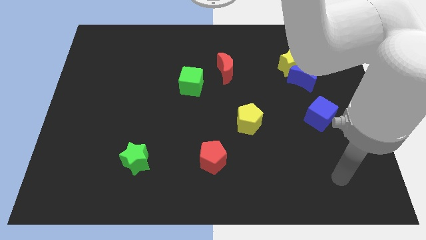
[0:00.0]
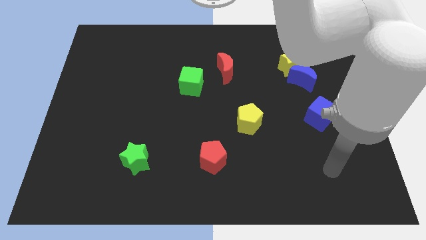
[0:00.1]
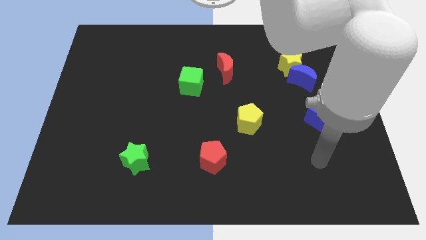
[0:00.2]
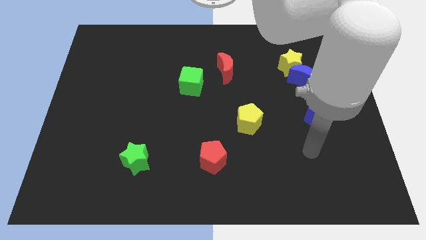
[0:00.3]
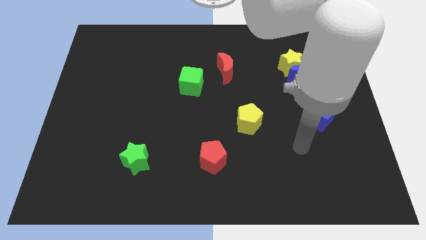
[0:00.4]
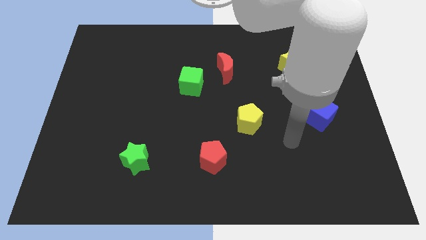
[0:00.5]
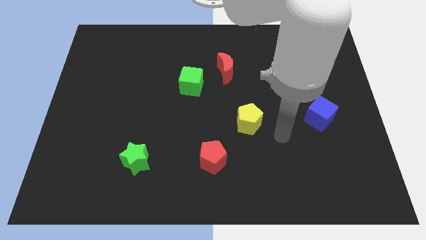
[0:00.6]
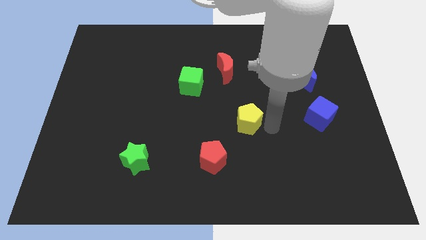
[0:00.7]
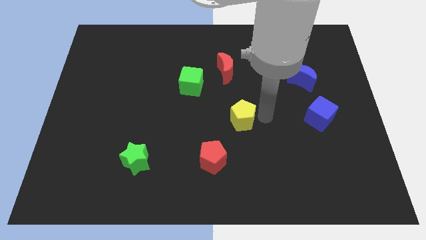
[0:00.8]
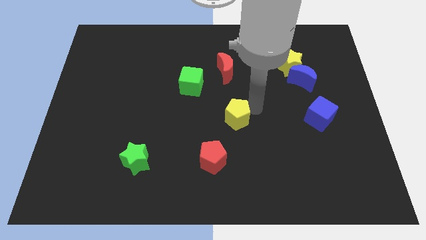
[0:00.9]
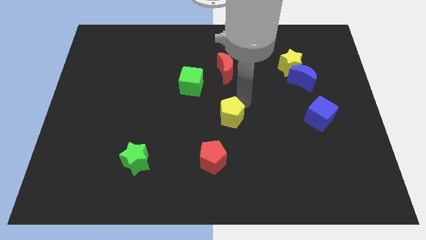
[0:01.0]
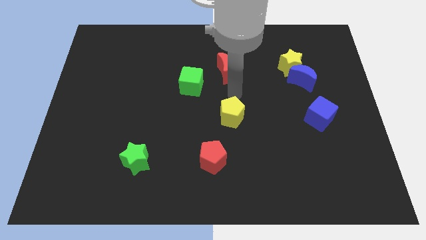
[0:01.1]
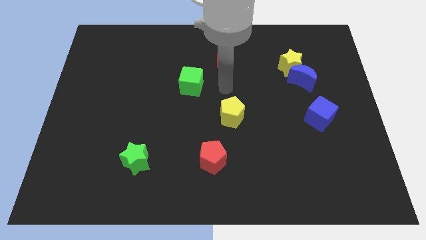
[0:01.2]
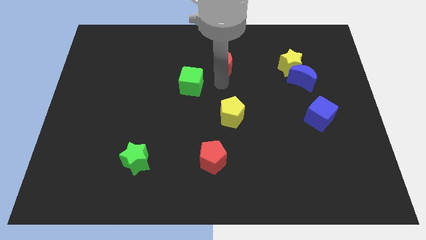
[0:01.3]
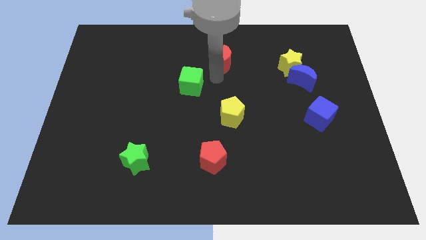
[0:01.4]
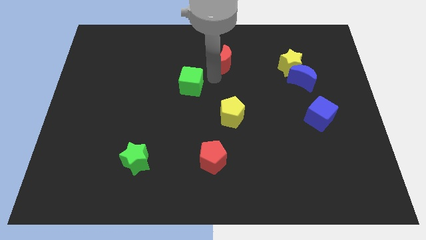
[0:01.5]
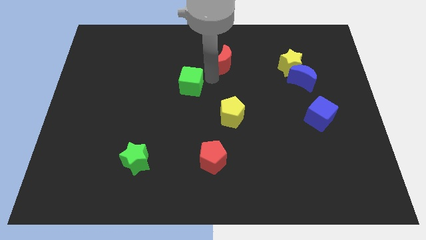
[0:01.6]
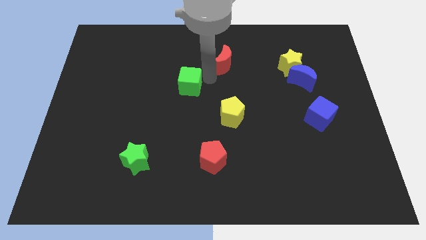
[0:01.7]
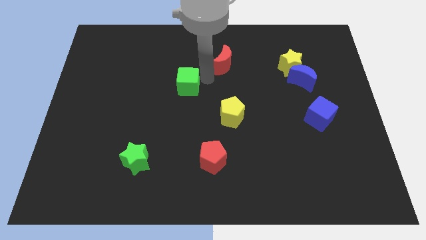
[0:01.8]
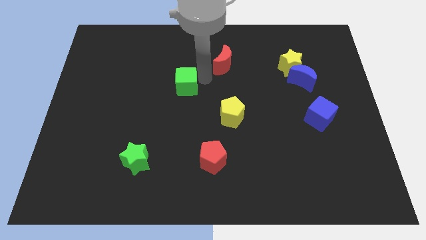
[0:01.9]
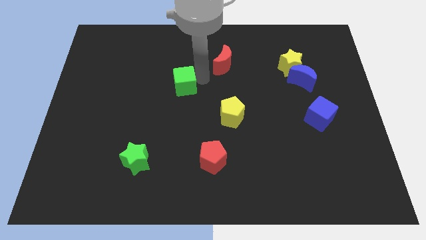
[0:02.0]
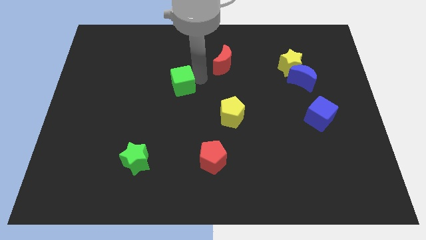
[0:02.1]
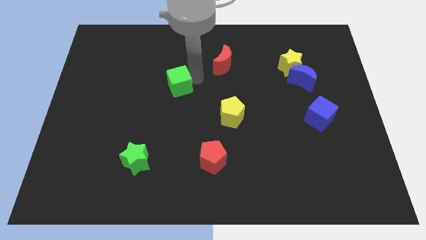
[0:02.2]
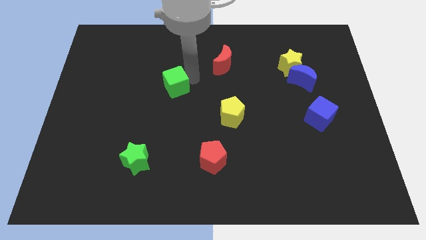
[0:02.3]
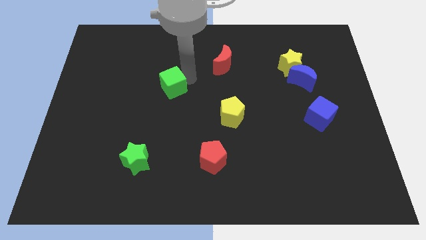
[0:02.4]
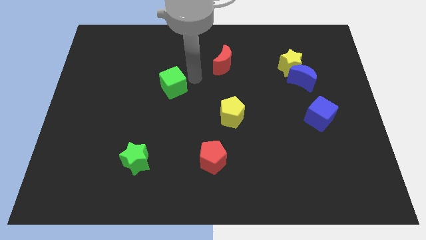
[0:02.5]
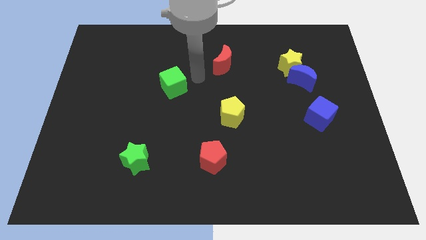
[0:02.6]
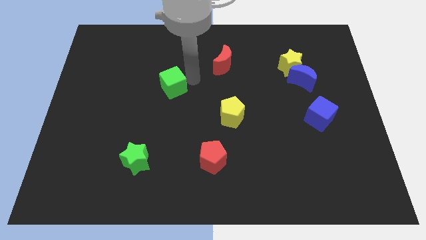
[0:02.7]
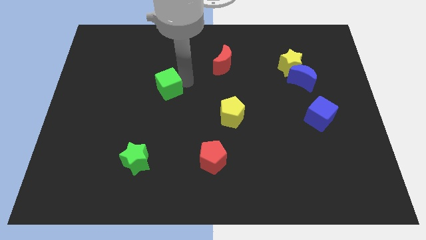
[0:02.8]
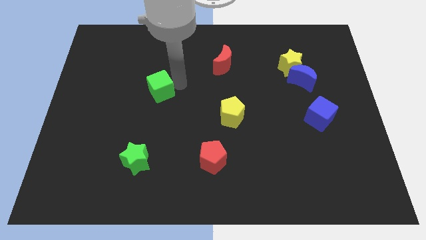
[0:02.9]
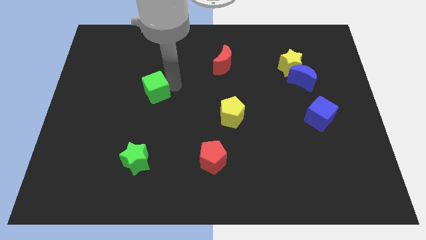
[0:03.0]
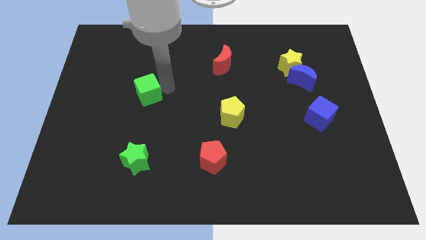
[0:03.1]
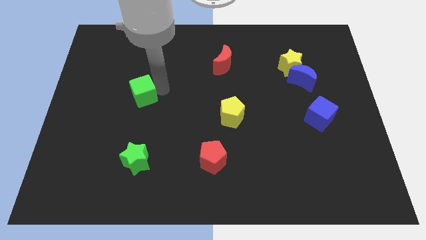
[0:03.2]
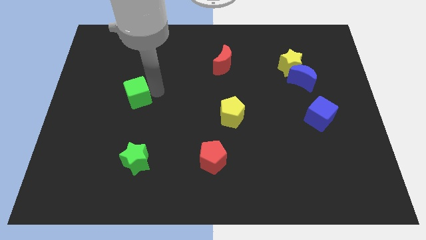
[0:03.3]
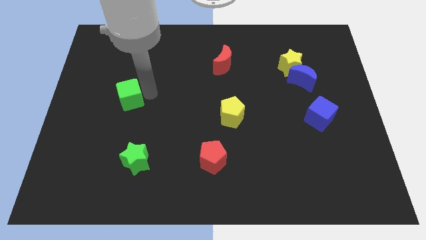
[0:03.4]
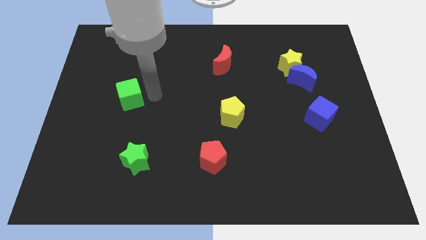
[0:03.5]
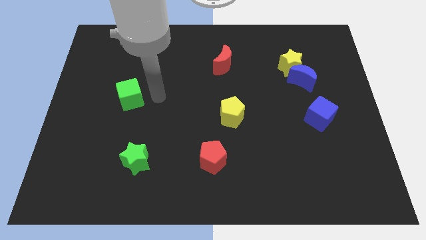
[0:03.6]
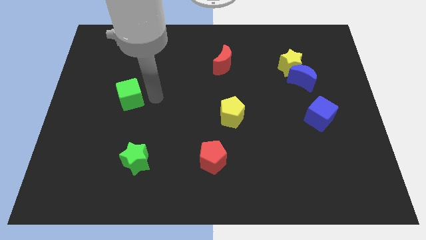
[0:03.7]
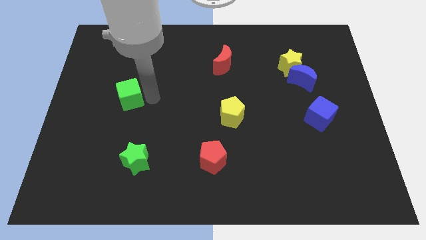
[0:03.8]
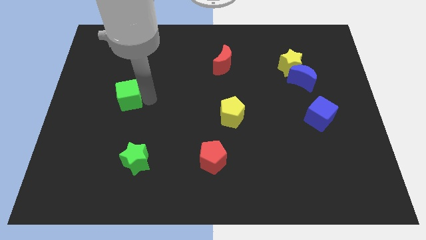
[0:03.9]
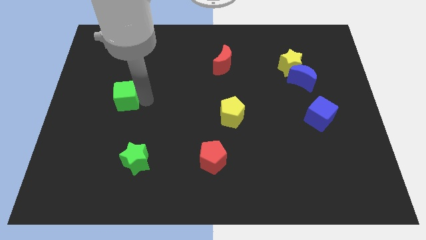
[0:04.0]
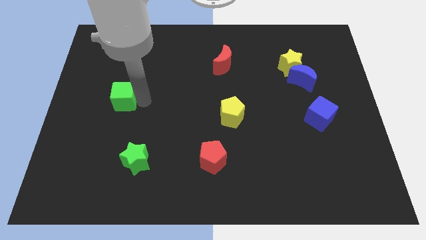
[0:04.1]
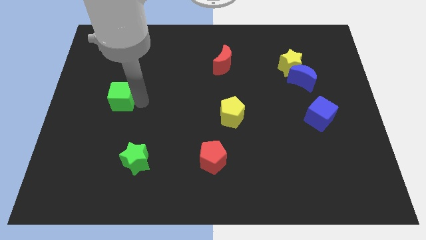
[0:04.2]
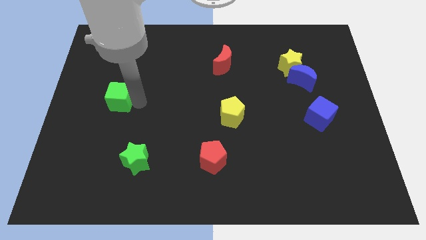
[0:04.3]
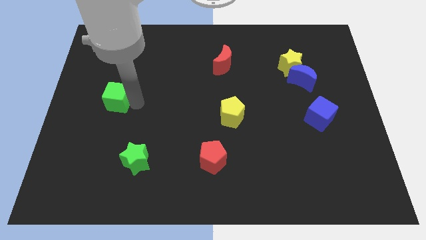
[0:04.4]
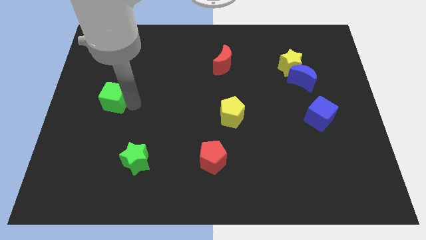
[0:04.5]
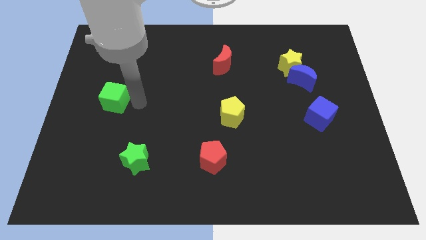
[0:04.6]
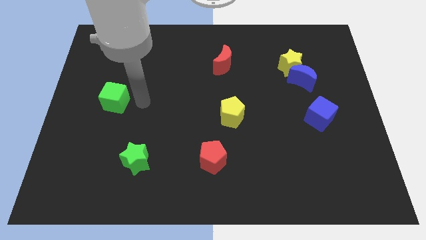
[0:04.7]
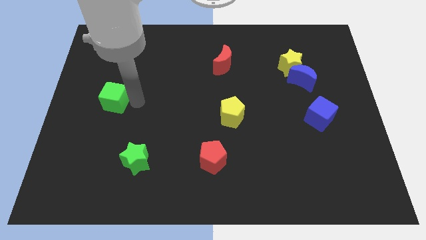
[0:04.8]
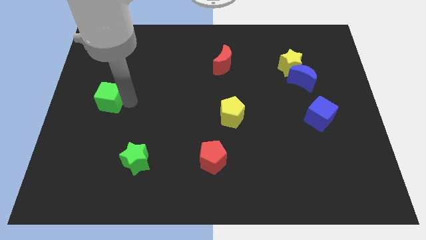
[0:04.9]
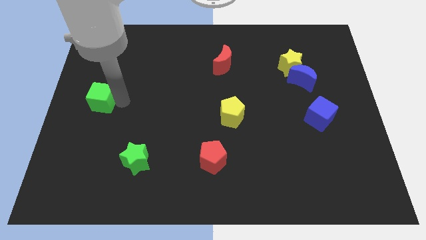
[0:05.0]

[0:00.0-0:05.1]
move the green cube to the left side of the board

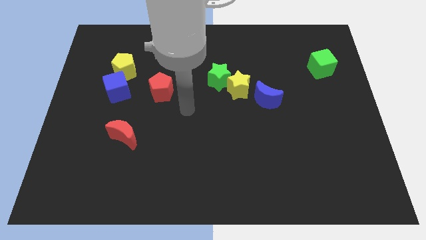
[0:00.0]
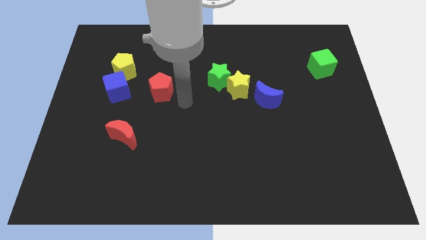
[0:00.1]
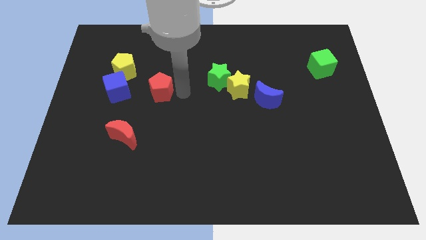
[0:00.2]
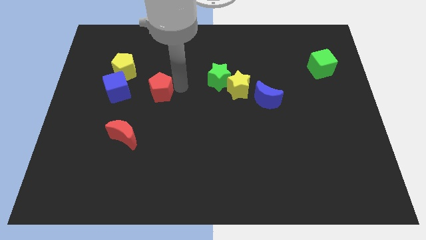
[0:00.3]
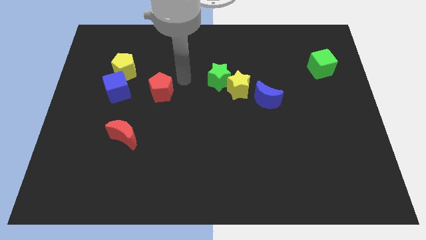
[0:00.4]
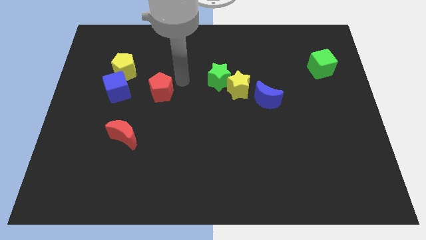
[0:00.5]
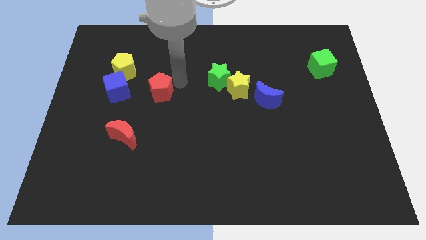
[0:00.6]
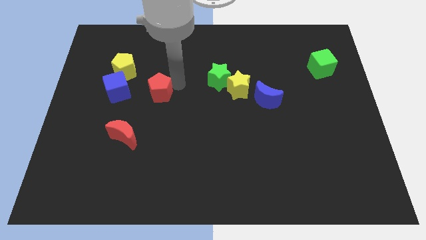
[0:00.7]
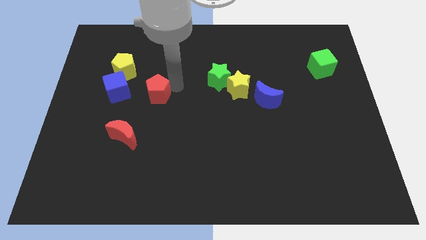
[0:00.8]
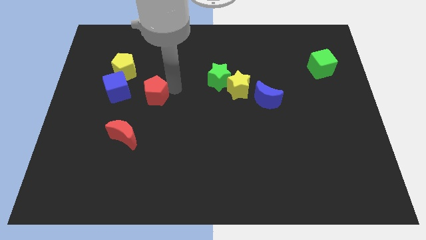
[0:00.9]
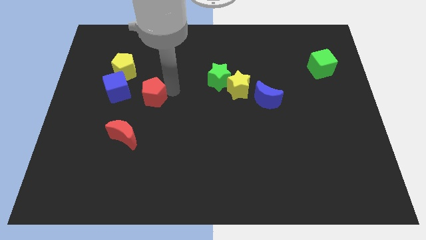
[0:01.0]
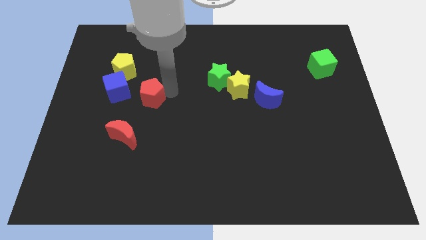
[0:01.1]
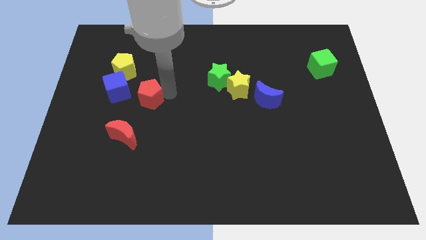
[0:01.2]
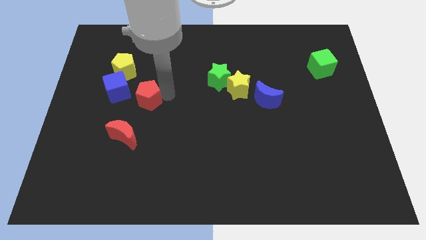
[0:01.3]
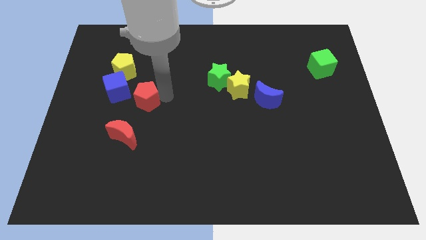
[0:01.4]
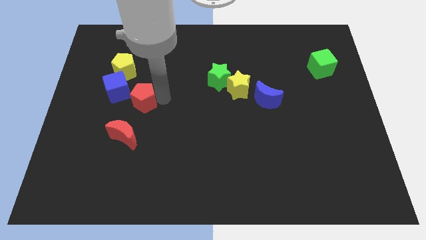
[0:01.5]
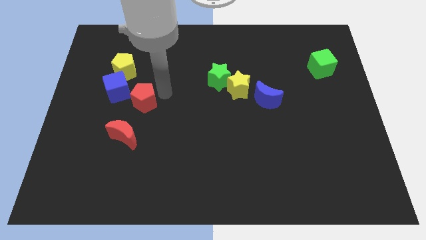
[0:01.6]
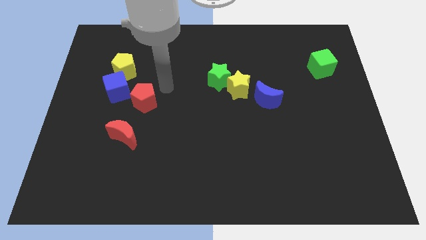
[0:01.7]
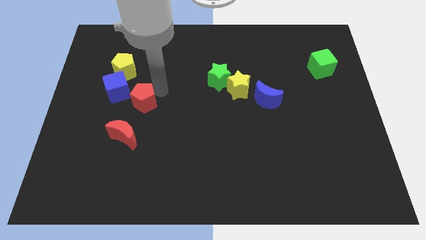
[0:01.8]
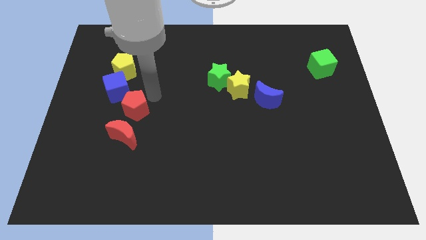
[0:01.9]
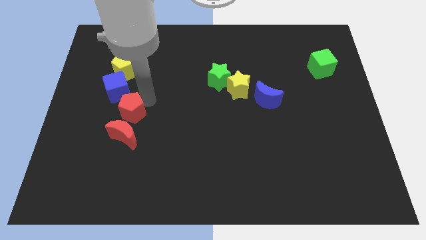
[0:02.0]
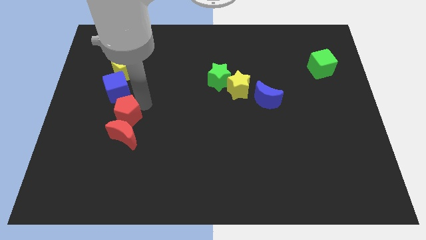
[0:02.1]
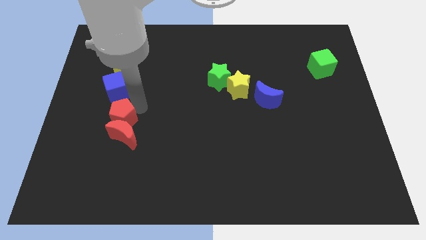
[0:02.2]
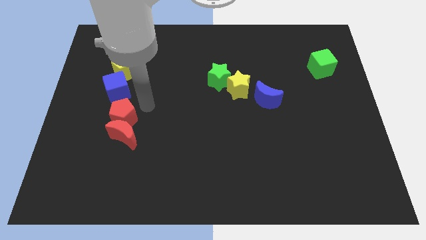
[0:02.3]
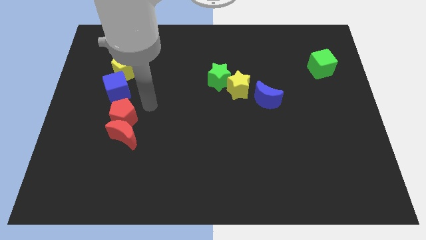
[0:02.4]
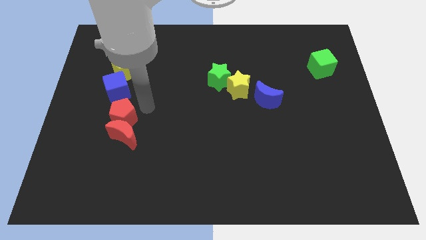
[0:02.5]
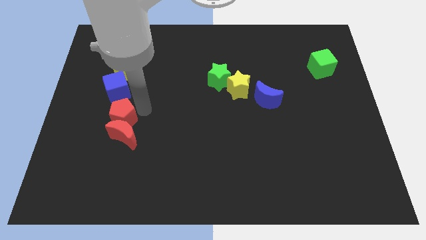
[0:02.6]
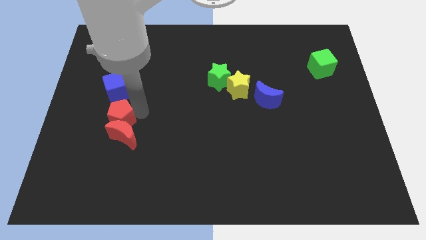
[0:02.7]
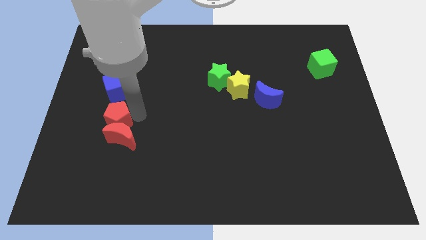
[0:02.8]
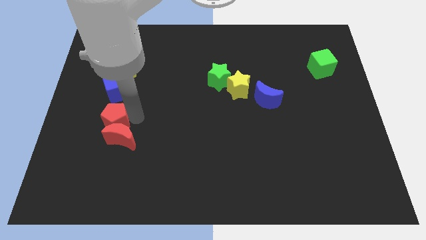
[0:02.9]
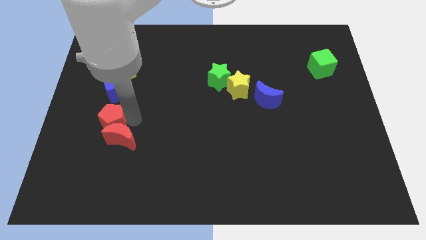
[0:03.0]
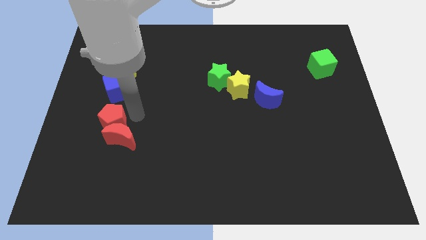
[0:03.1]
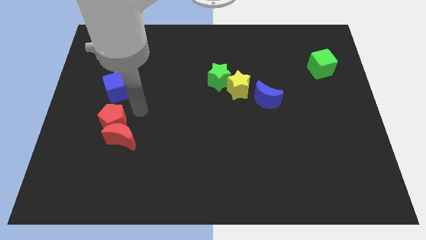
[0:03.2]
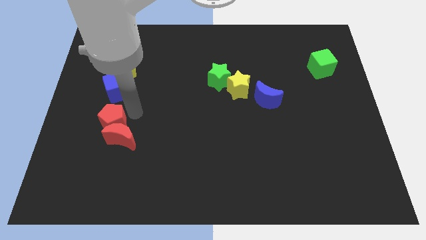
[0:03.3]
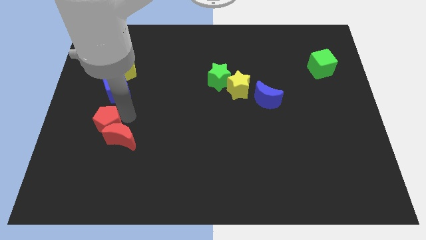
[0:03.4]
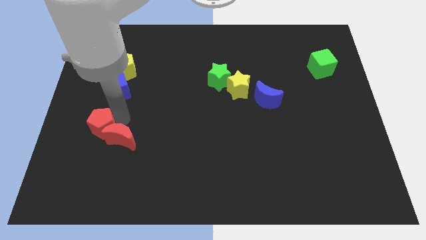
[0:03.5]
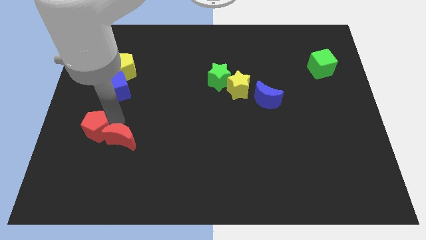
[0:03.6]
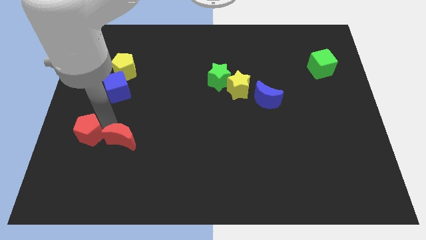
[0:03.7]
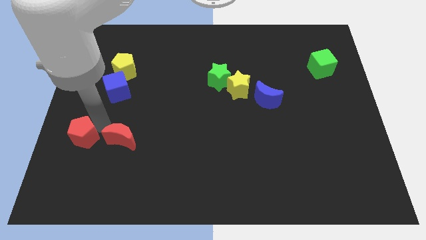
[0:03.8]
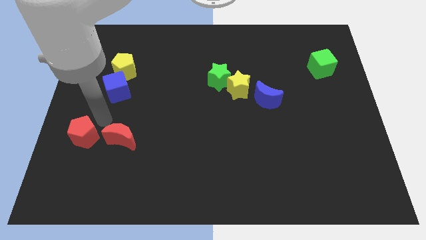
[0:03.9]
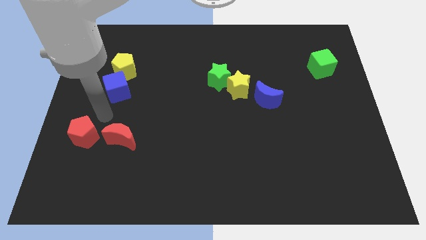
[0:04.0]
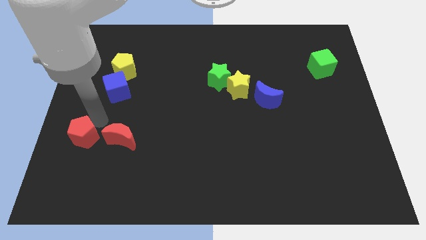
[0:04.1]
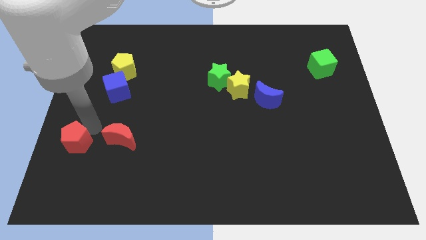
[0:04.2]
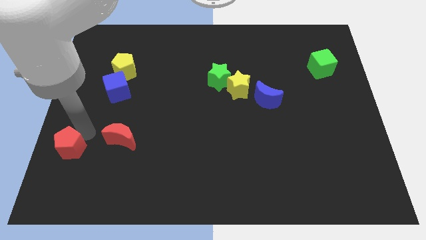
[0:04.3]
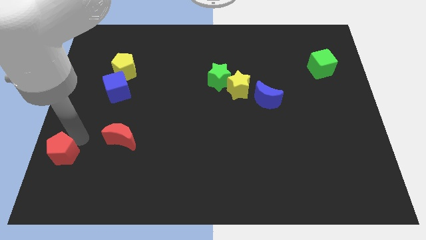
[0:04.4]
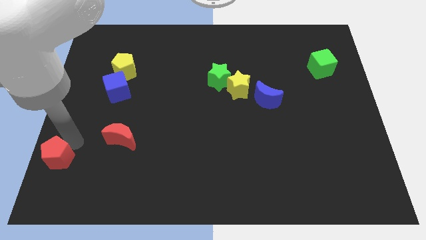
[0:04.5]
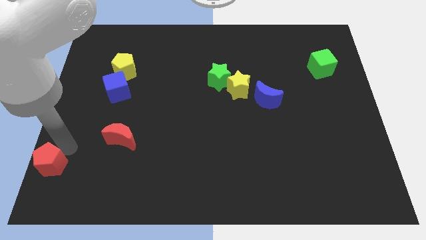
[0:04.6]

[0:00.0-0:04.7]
put the red pentagon to the bottom left corner
